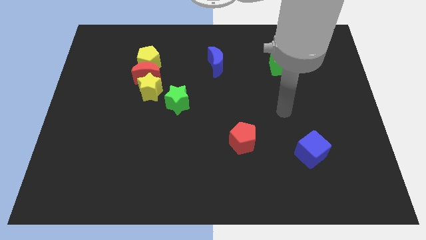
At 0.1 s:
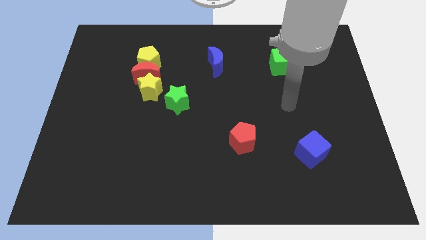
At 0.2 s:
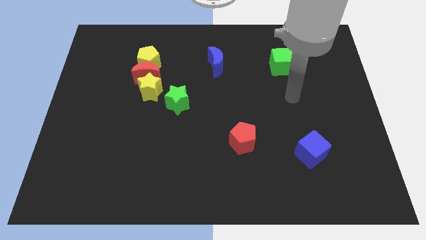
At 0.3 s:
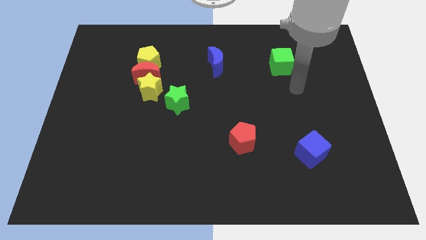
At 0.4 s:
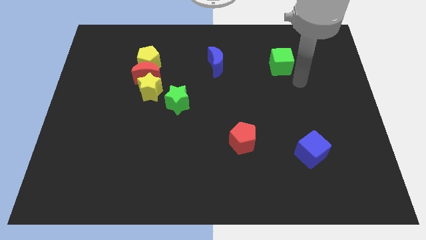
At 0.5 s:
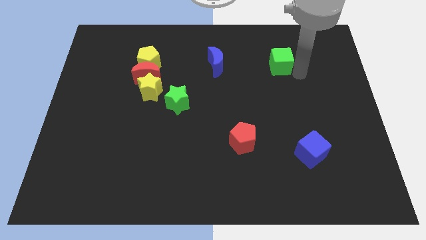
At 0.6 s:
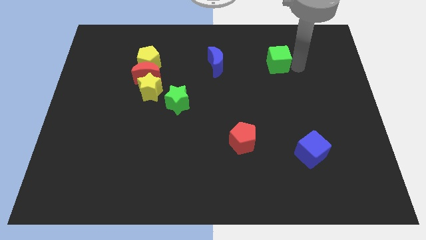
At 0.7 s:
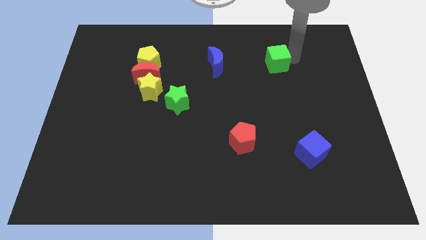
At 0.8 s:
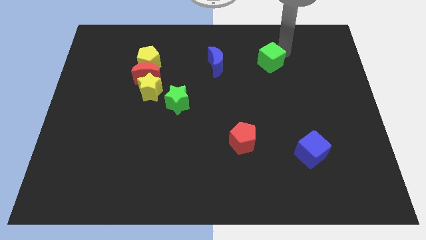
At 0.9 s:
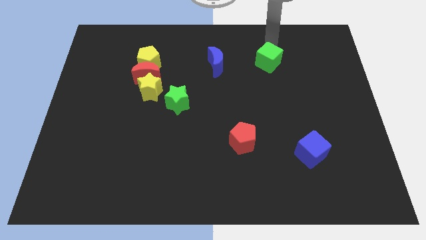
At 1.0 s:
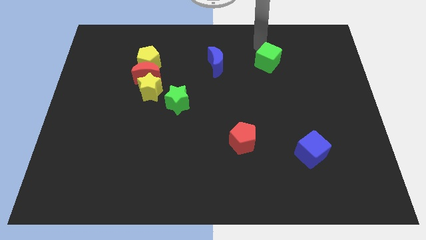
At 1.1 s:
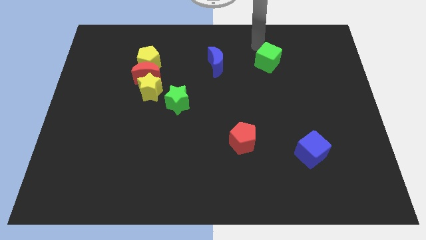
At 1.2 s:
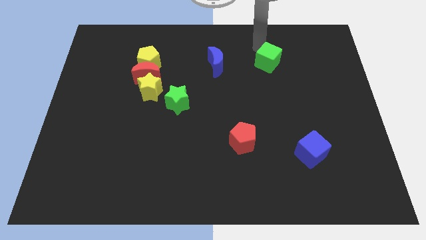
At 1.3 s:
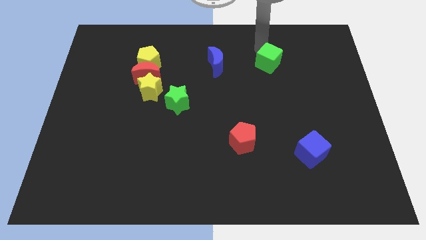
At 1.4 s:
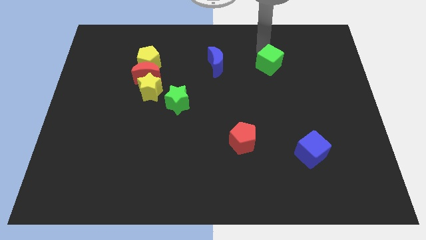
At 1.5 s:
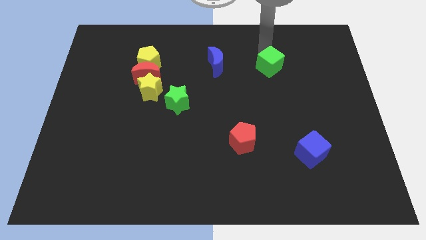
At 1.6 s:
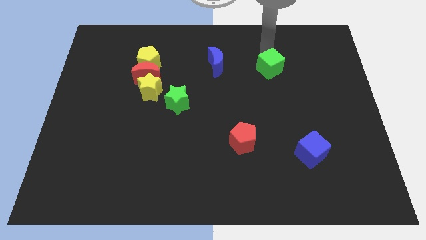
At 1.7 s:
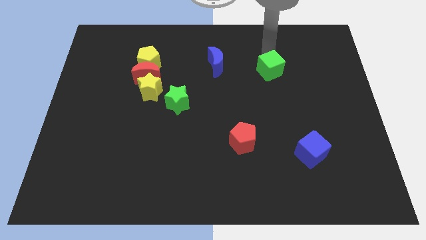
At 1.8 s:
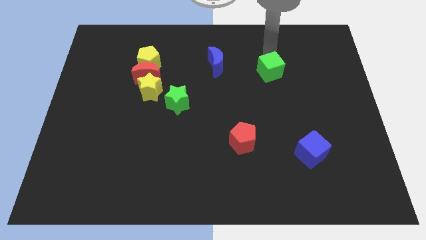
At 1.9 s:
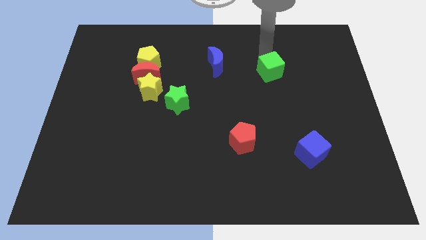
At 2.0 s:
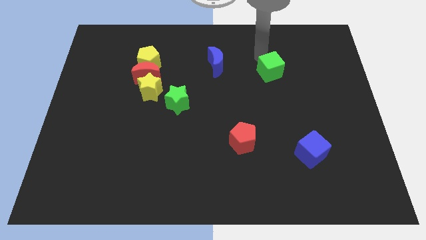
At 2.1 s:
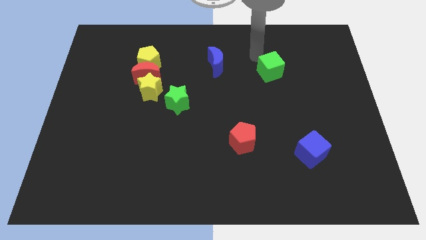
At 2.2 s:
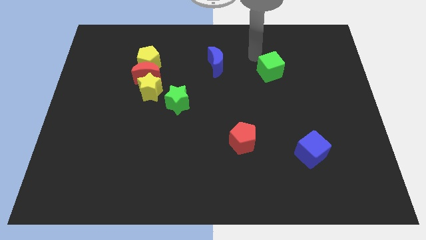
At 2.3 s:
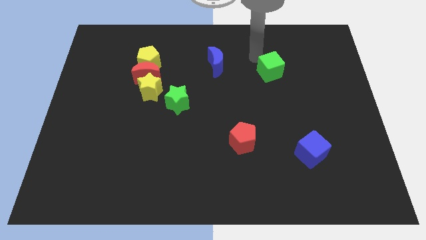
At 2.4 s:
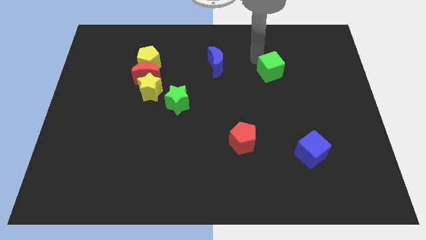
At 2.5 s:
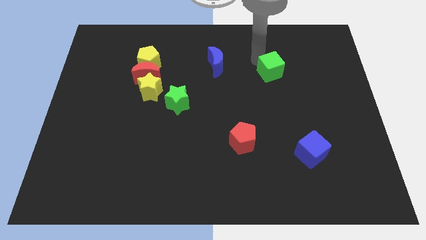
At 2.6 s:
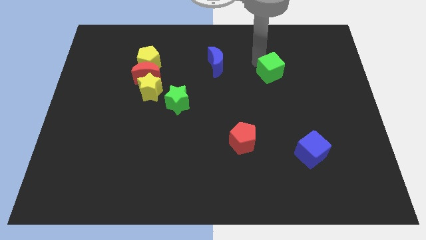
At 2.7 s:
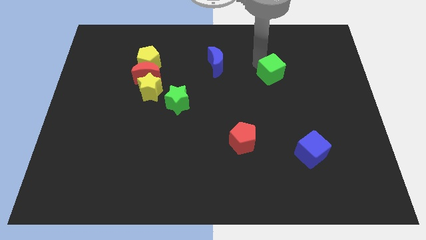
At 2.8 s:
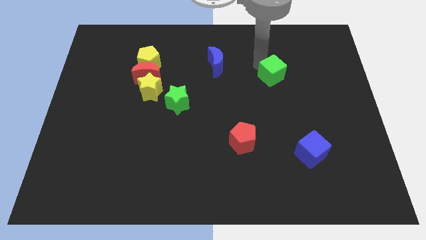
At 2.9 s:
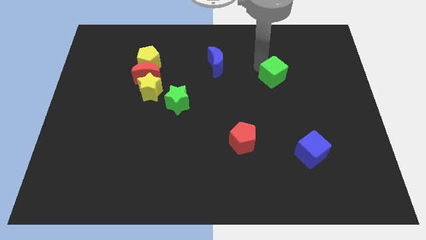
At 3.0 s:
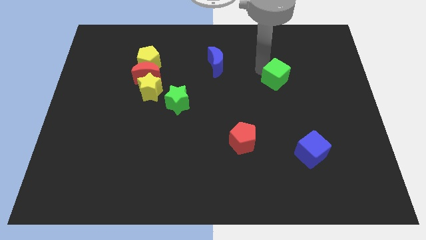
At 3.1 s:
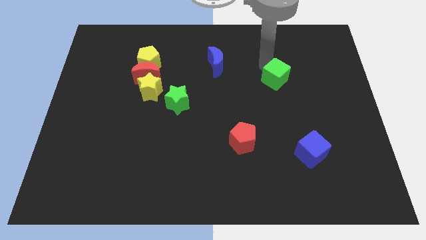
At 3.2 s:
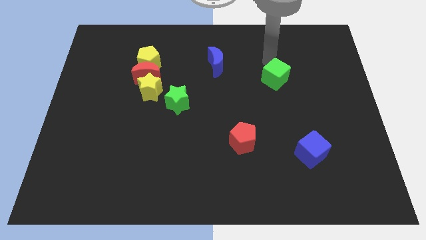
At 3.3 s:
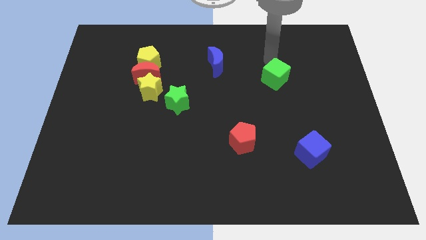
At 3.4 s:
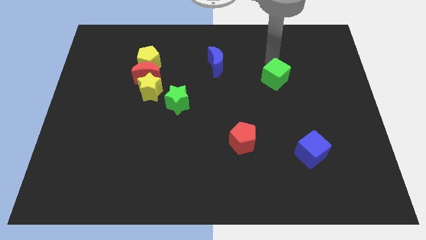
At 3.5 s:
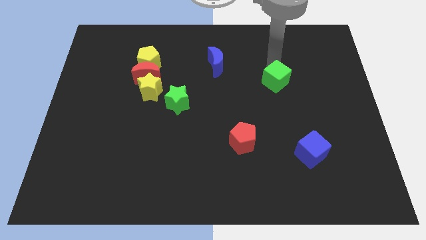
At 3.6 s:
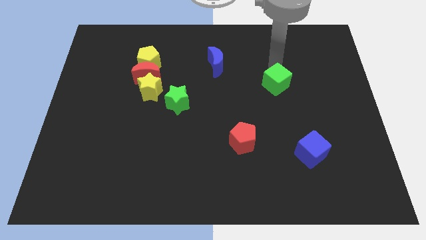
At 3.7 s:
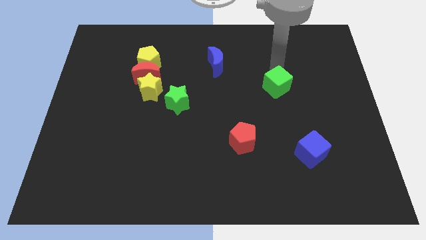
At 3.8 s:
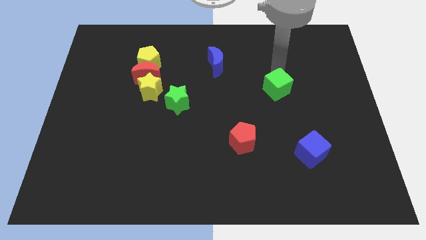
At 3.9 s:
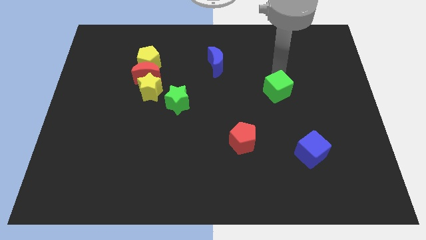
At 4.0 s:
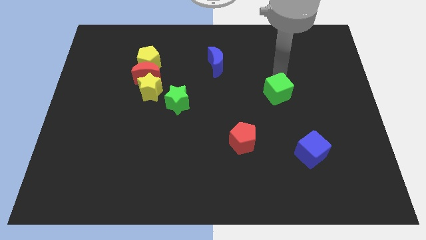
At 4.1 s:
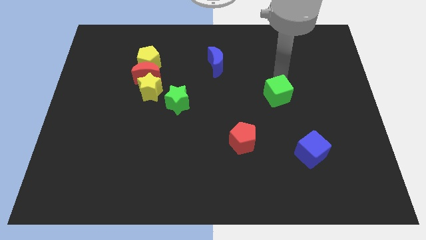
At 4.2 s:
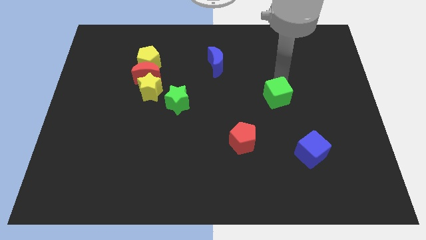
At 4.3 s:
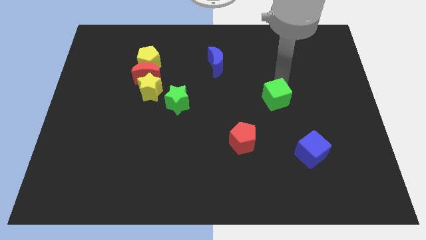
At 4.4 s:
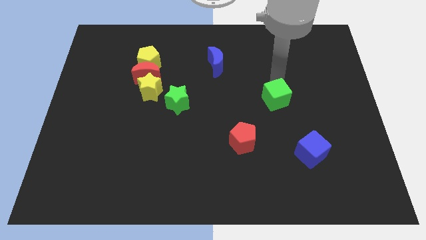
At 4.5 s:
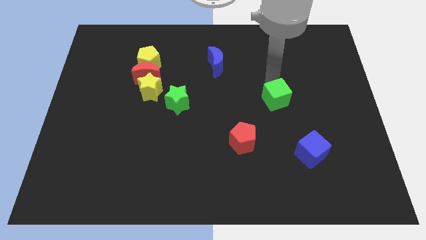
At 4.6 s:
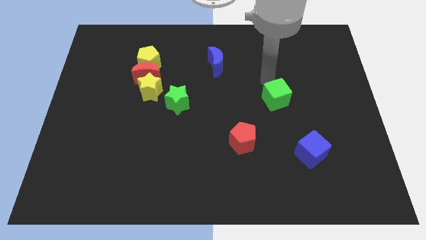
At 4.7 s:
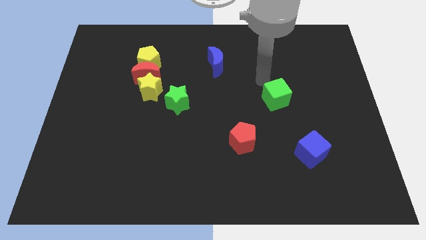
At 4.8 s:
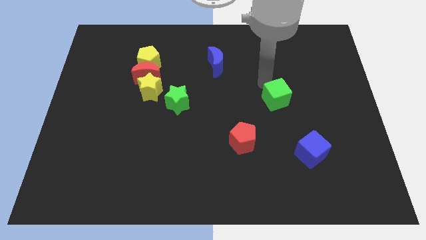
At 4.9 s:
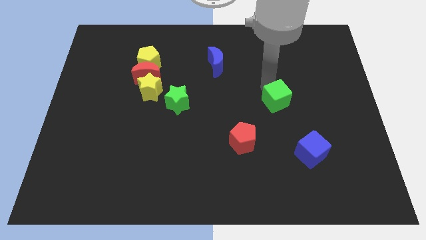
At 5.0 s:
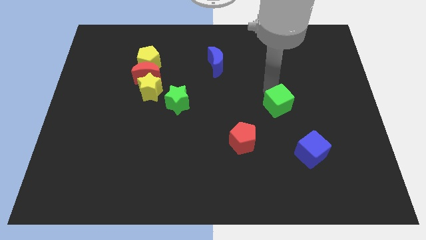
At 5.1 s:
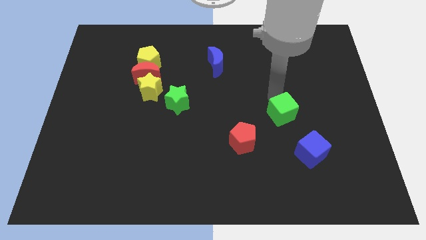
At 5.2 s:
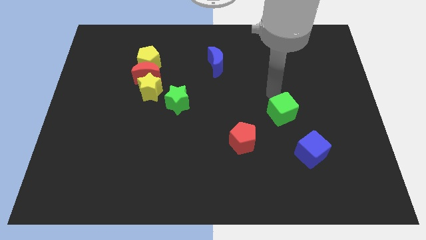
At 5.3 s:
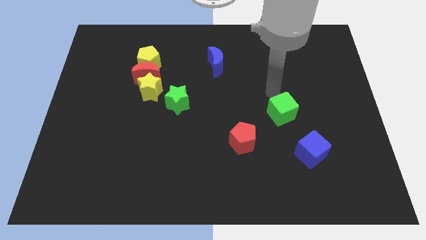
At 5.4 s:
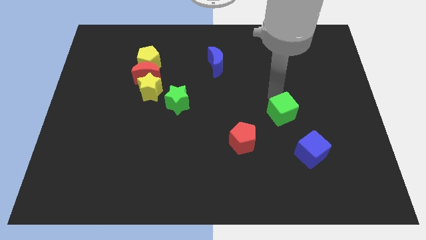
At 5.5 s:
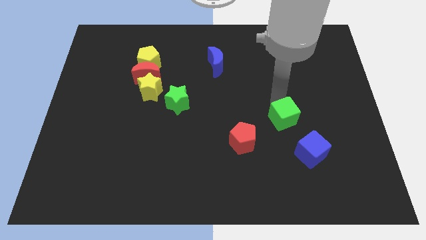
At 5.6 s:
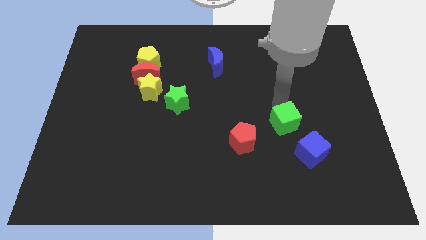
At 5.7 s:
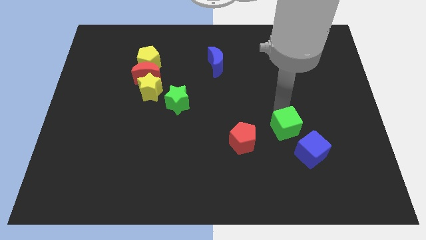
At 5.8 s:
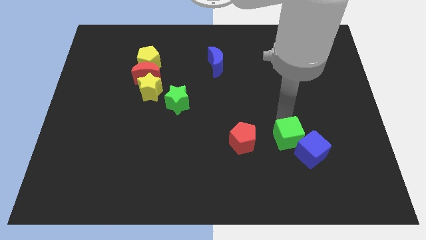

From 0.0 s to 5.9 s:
push the green cube down

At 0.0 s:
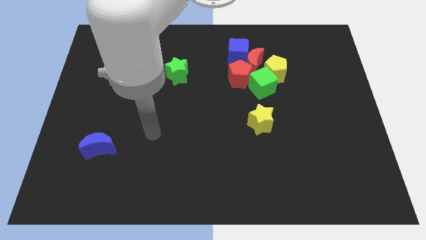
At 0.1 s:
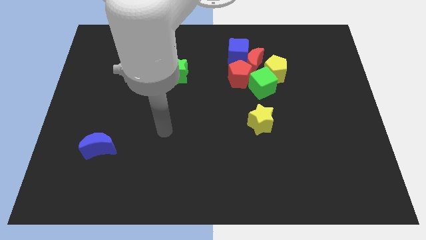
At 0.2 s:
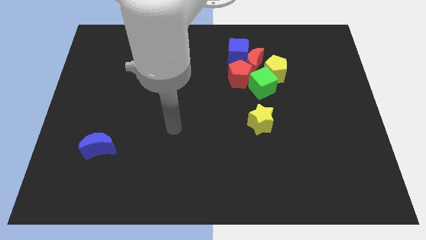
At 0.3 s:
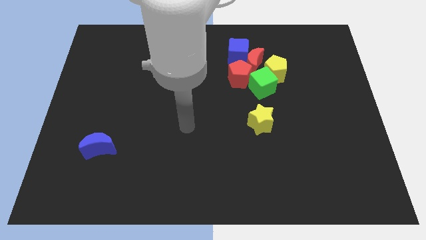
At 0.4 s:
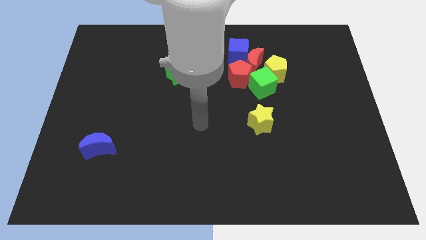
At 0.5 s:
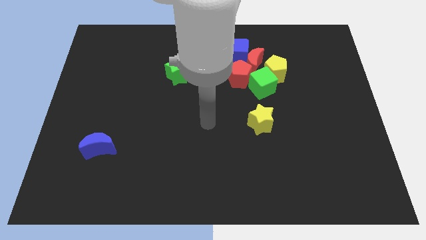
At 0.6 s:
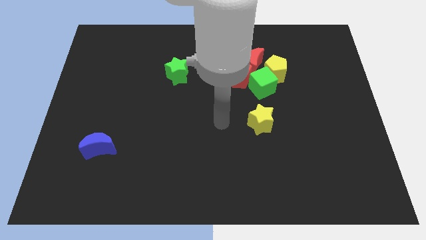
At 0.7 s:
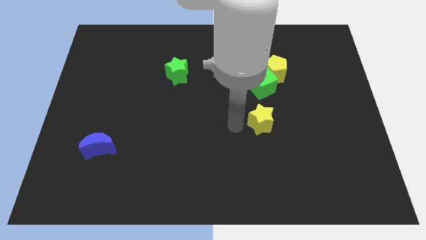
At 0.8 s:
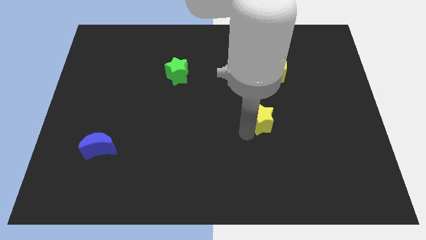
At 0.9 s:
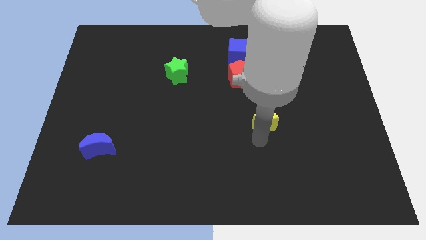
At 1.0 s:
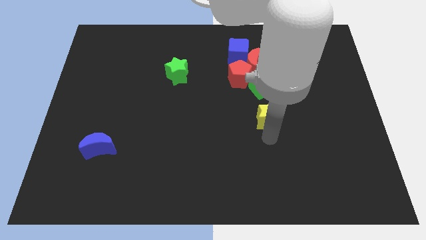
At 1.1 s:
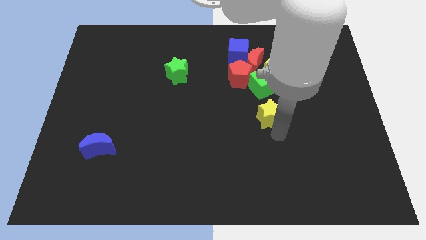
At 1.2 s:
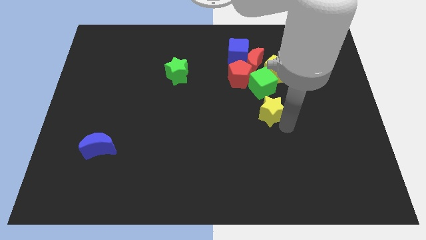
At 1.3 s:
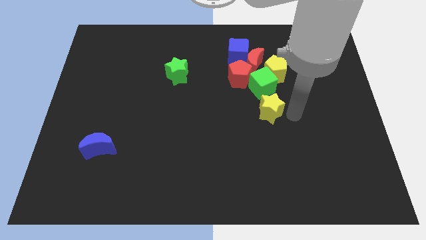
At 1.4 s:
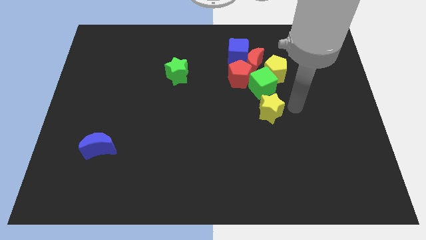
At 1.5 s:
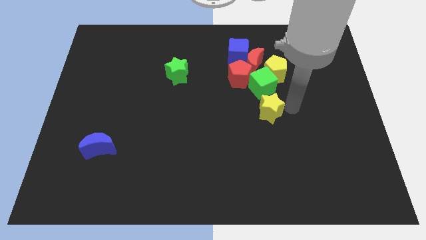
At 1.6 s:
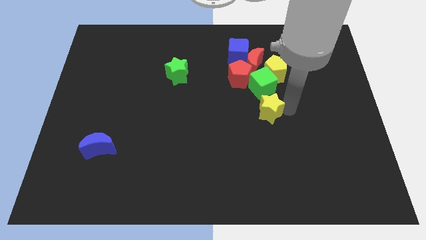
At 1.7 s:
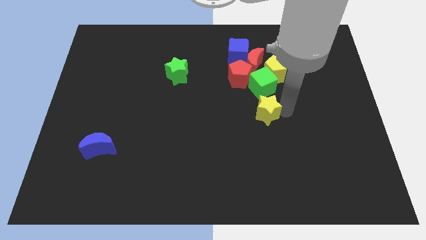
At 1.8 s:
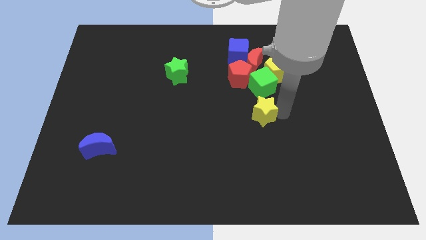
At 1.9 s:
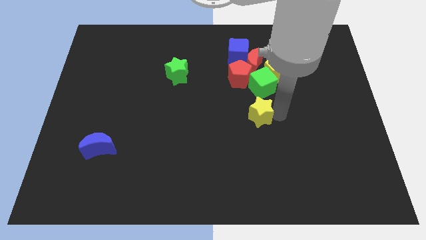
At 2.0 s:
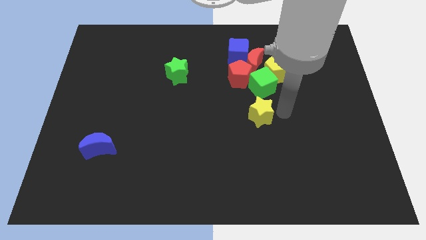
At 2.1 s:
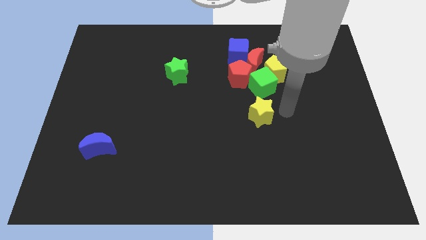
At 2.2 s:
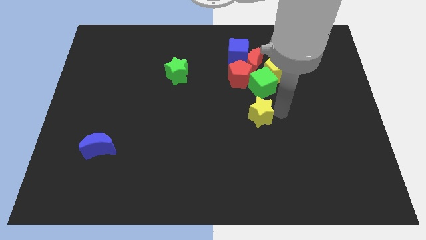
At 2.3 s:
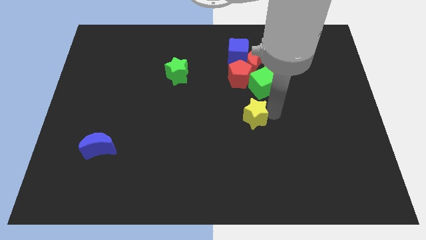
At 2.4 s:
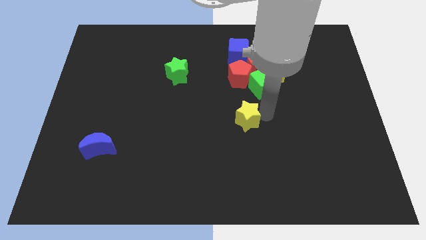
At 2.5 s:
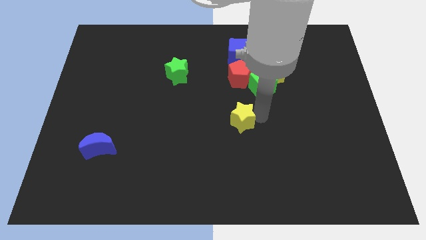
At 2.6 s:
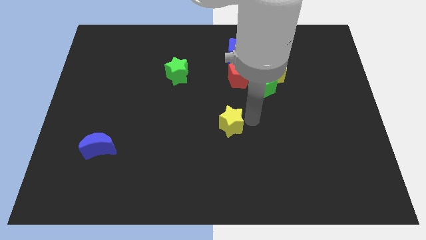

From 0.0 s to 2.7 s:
push the yellow star a bit left
